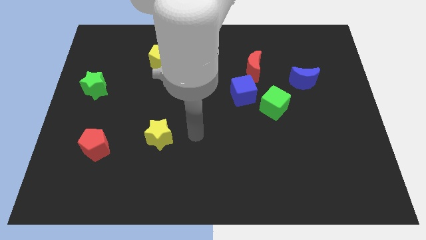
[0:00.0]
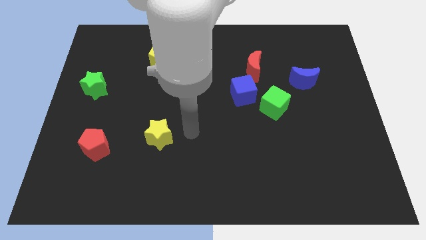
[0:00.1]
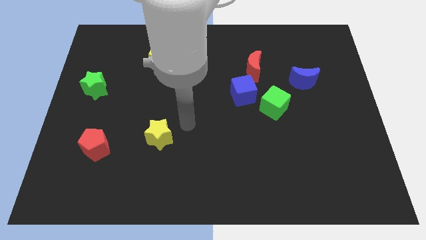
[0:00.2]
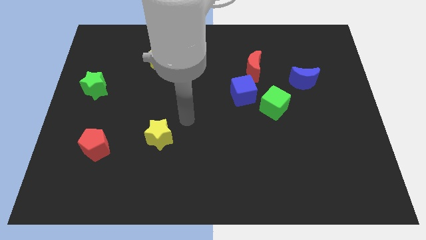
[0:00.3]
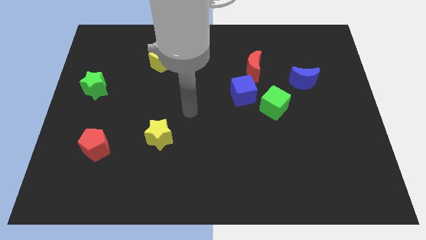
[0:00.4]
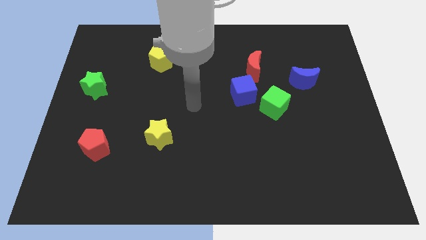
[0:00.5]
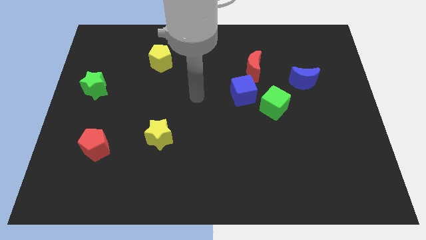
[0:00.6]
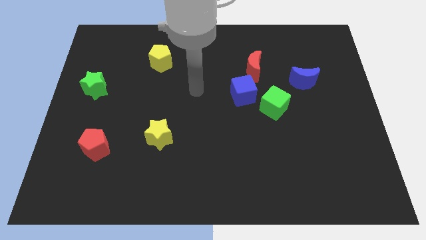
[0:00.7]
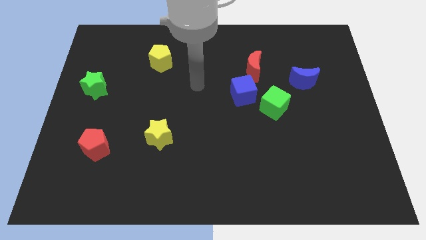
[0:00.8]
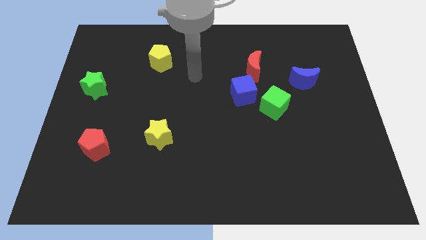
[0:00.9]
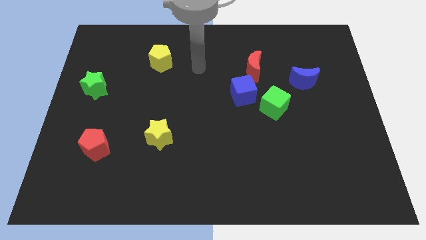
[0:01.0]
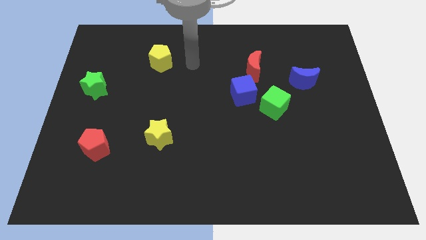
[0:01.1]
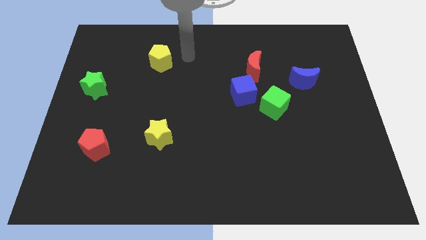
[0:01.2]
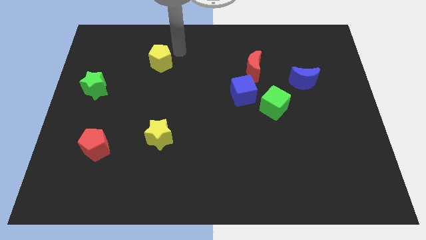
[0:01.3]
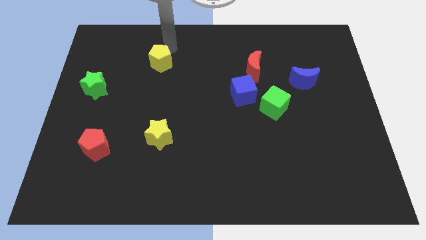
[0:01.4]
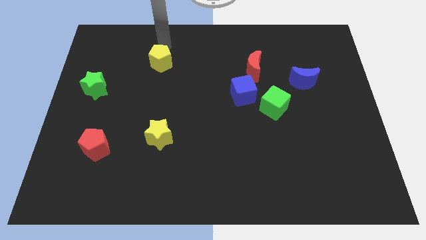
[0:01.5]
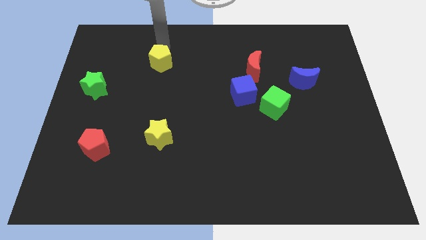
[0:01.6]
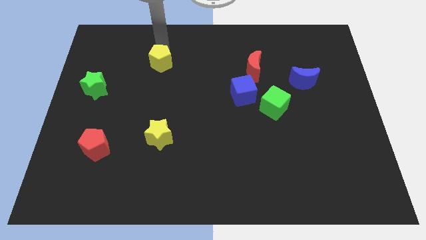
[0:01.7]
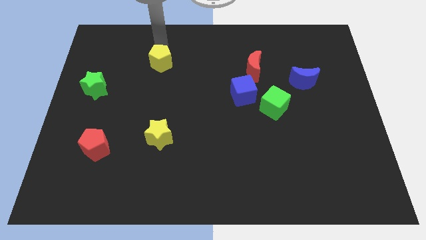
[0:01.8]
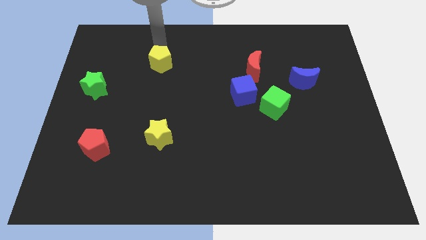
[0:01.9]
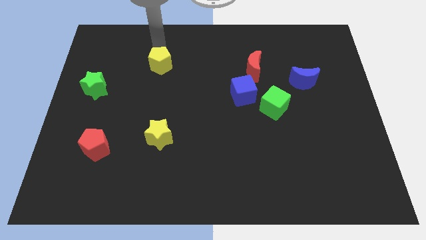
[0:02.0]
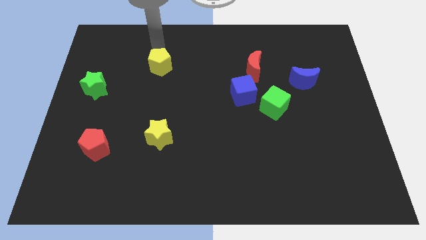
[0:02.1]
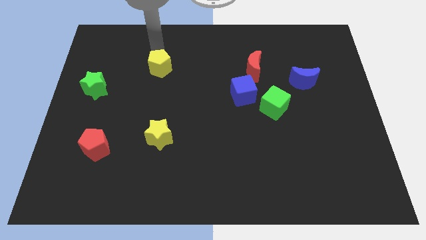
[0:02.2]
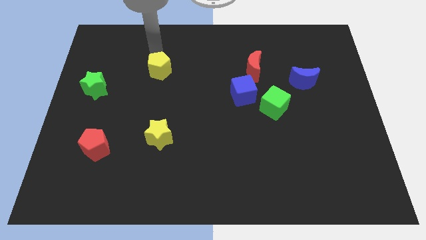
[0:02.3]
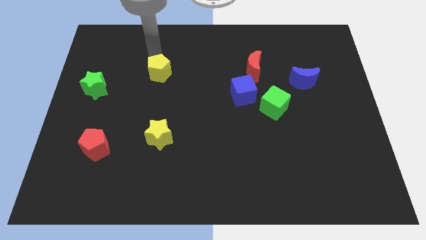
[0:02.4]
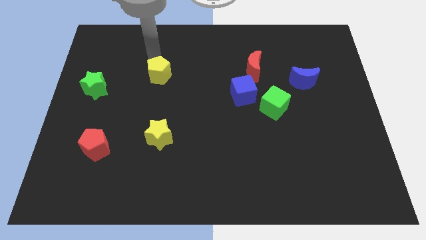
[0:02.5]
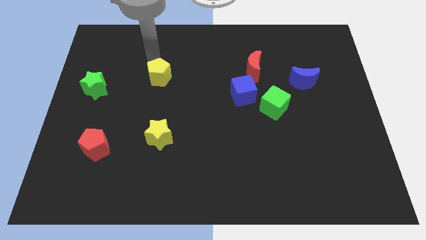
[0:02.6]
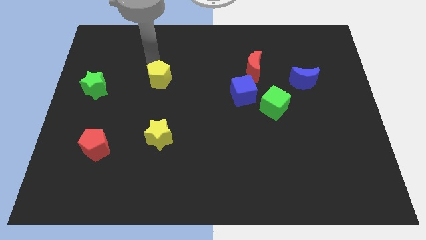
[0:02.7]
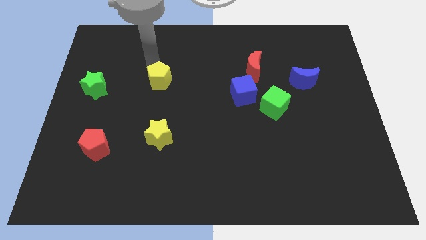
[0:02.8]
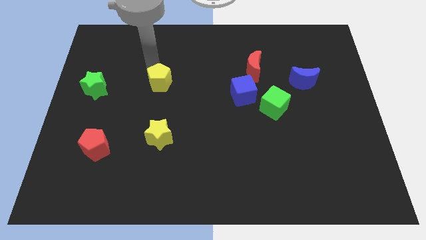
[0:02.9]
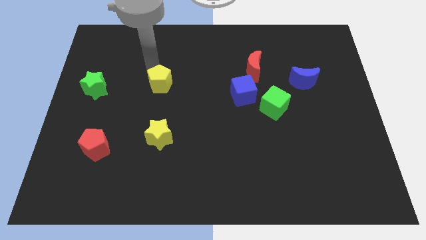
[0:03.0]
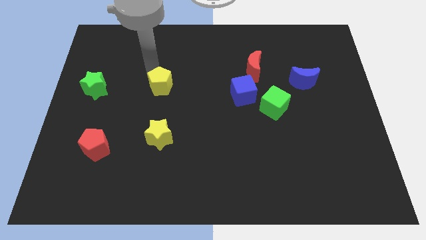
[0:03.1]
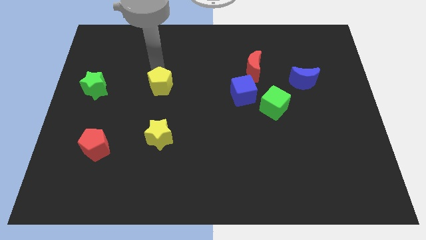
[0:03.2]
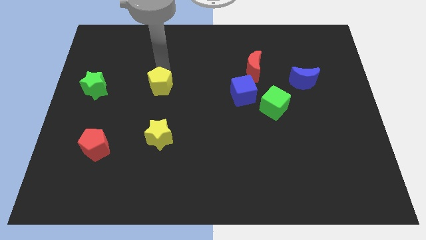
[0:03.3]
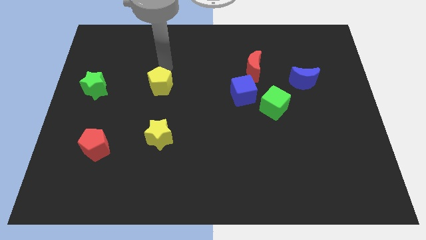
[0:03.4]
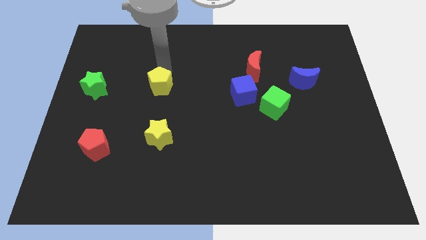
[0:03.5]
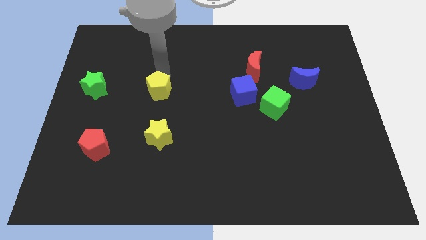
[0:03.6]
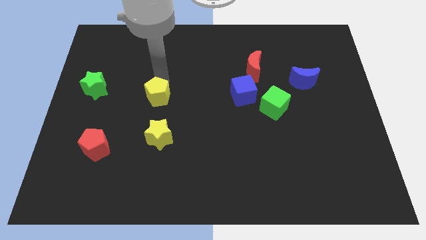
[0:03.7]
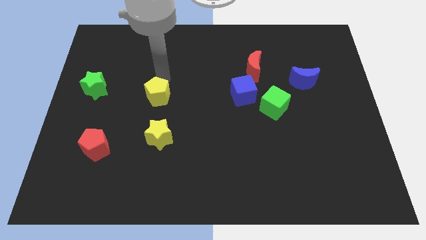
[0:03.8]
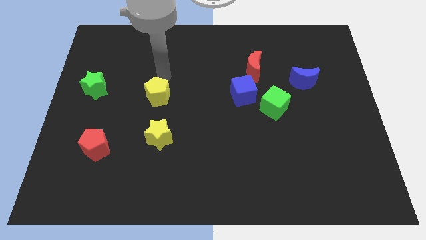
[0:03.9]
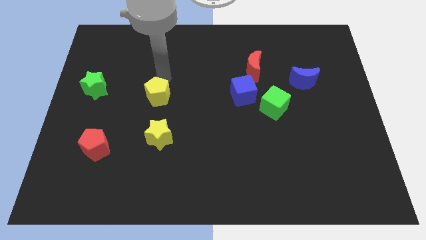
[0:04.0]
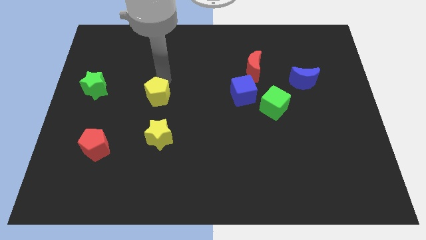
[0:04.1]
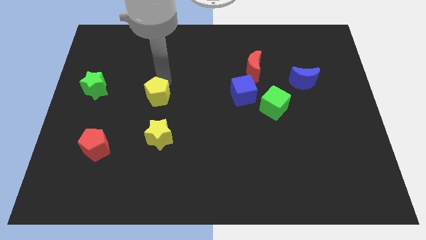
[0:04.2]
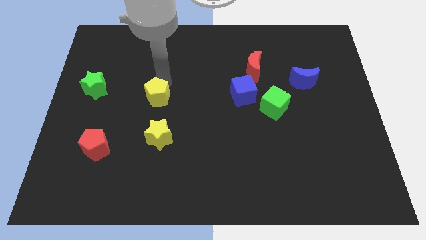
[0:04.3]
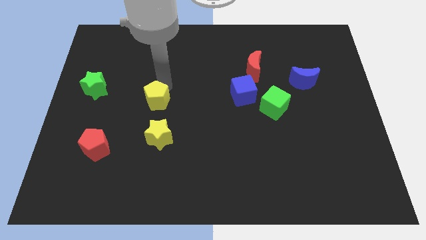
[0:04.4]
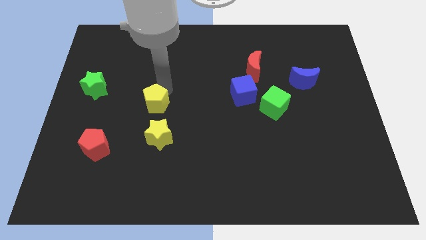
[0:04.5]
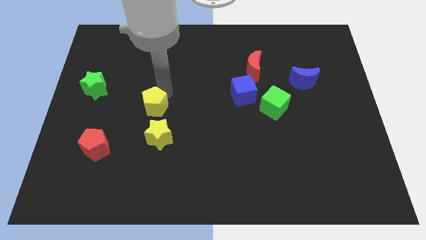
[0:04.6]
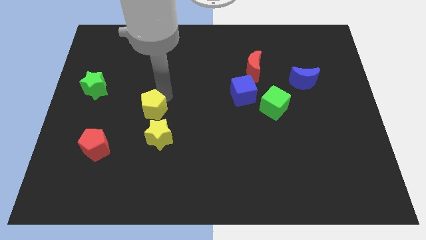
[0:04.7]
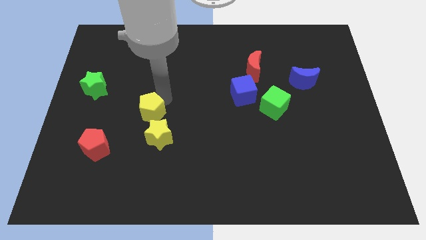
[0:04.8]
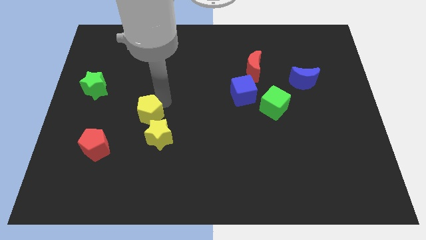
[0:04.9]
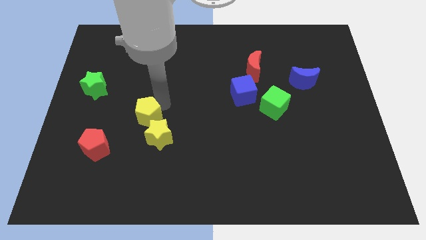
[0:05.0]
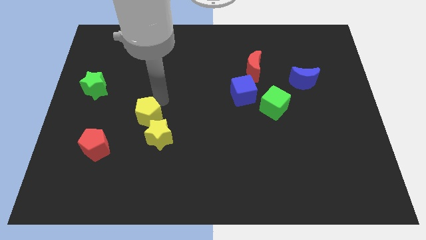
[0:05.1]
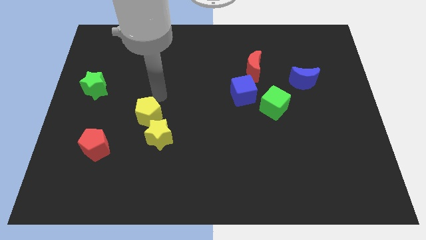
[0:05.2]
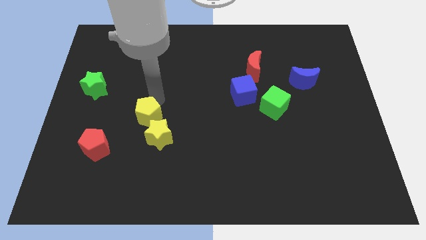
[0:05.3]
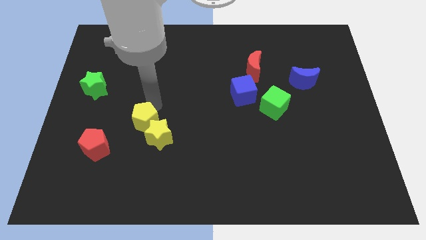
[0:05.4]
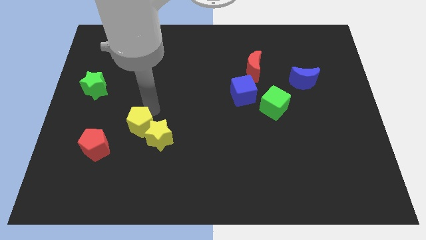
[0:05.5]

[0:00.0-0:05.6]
move the yellow pentagon down

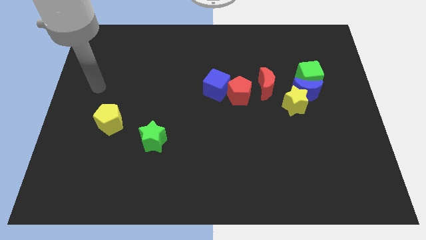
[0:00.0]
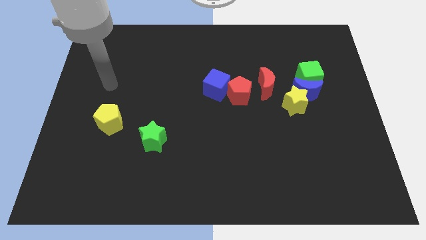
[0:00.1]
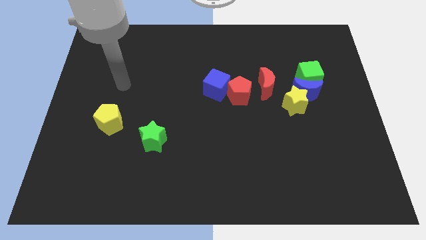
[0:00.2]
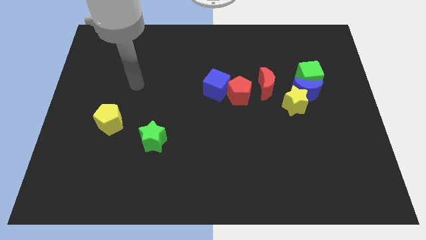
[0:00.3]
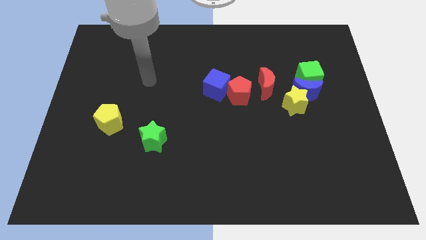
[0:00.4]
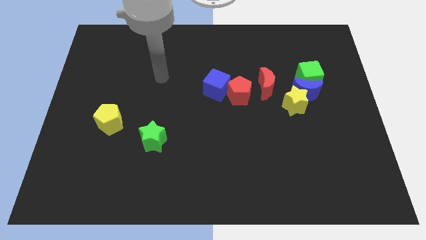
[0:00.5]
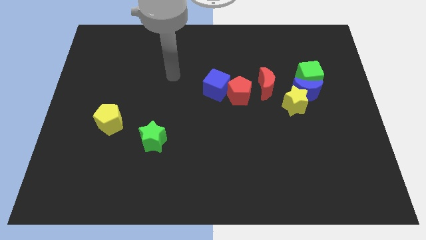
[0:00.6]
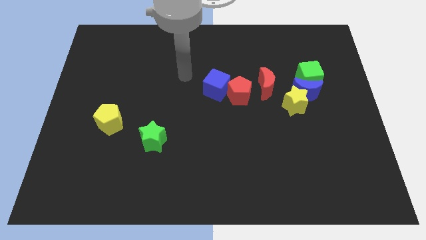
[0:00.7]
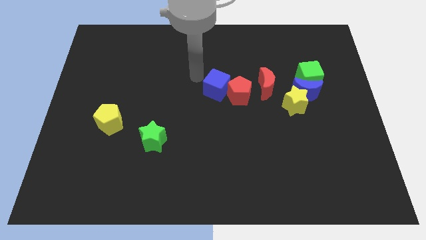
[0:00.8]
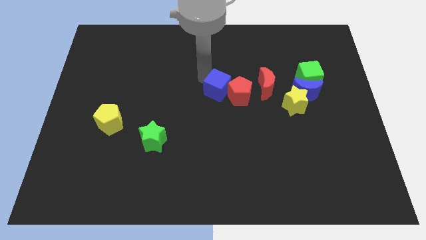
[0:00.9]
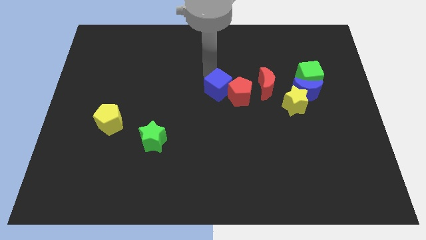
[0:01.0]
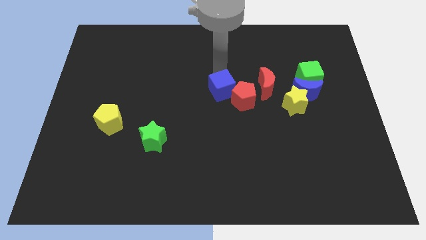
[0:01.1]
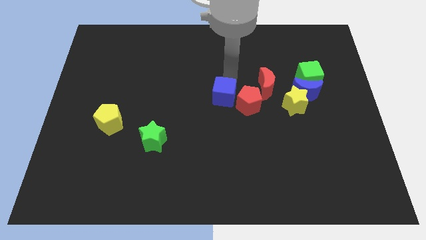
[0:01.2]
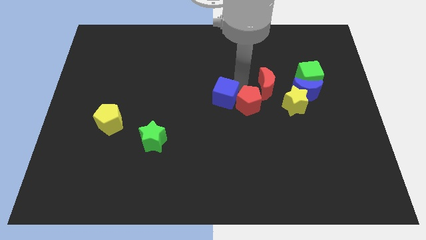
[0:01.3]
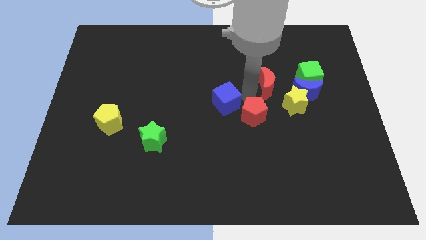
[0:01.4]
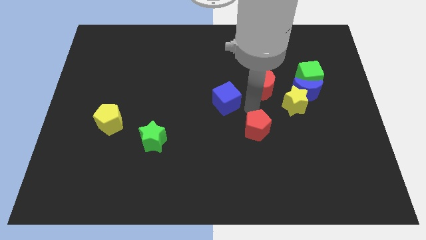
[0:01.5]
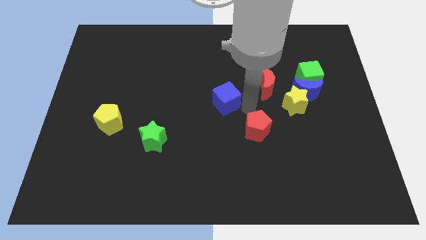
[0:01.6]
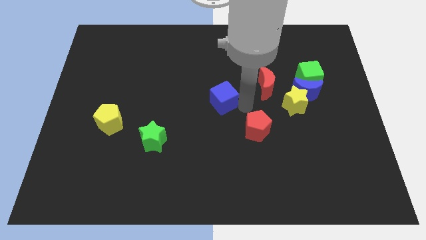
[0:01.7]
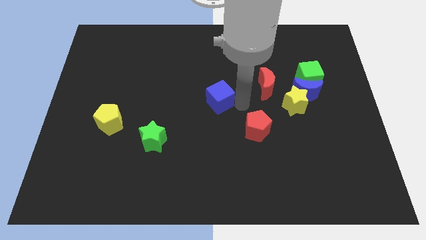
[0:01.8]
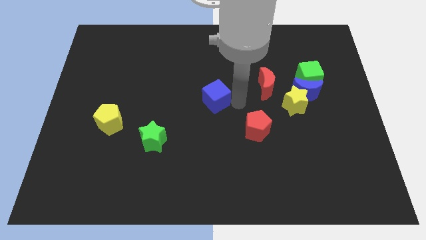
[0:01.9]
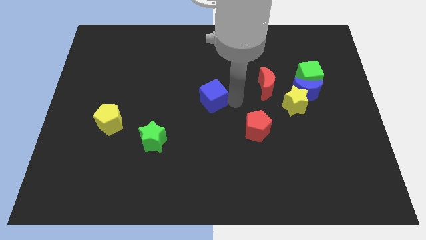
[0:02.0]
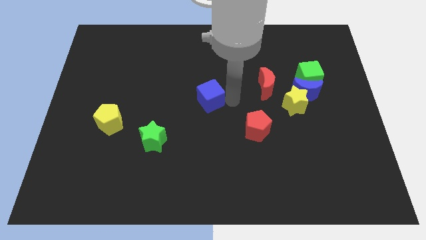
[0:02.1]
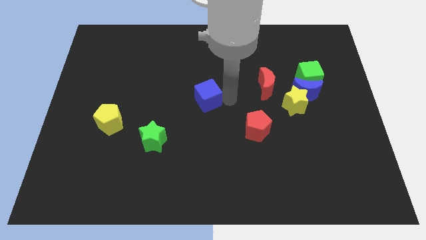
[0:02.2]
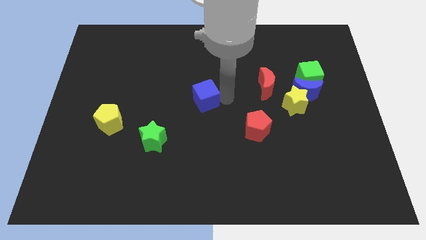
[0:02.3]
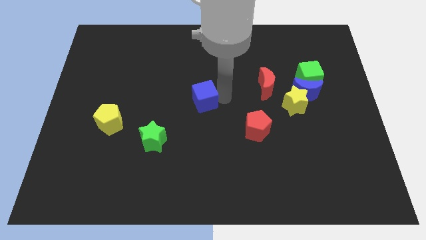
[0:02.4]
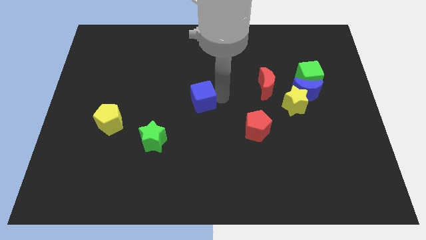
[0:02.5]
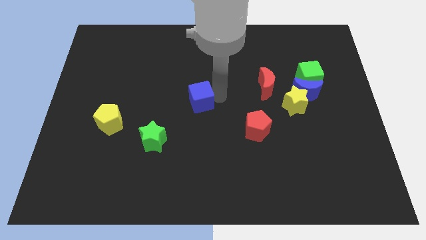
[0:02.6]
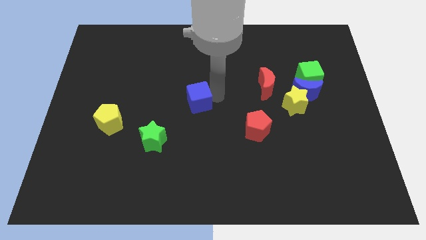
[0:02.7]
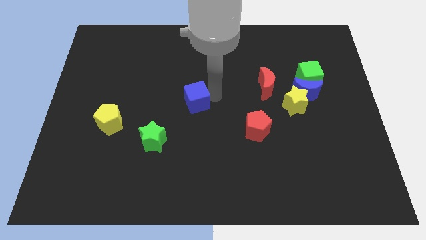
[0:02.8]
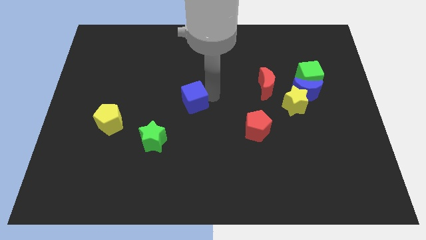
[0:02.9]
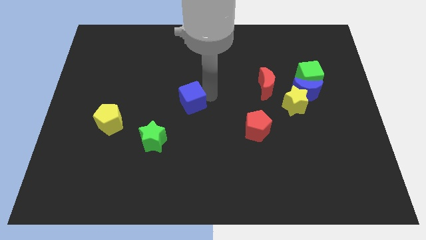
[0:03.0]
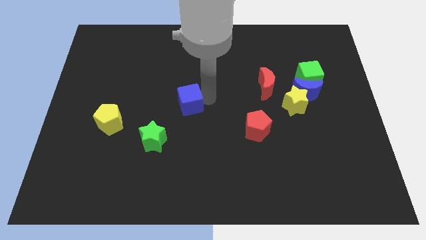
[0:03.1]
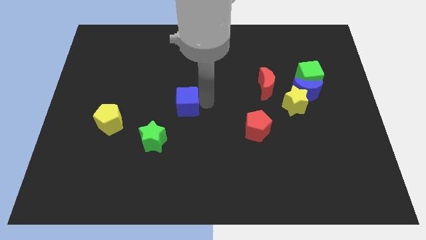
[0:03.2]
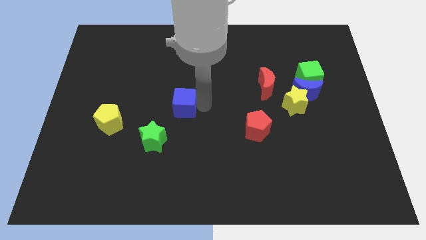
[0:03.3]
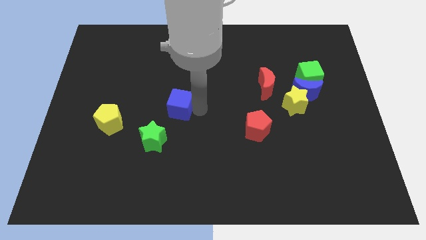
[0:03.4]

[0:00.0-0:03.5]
slightly push the blue cube to the left
